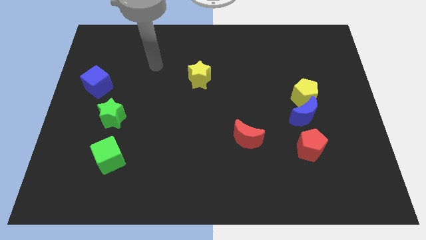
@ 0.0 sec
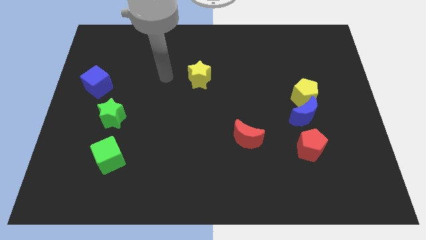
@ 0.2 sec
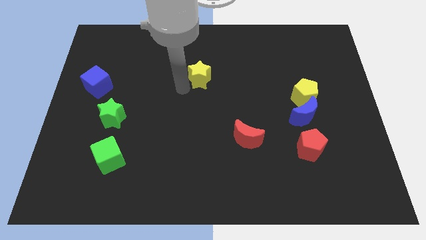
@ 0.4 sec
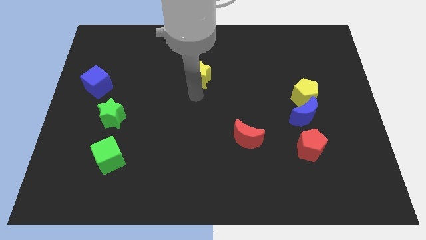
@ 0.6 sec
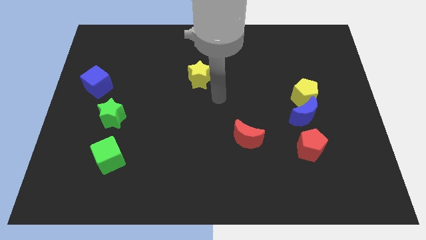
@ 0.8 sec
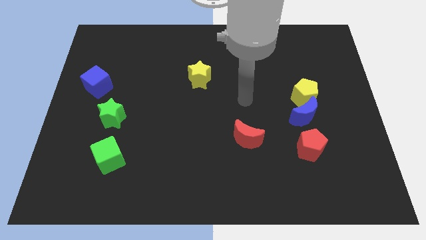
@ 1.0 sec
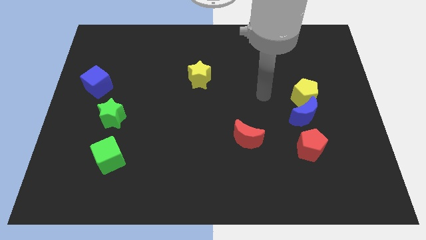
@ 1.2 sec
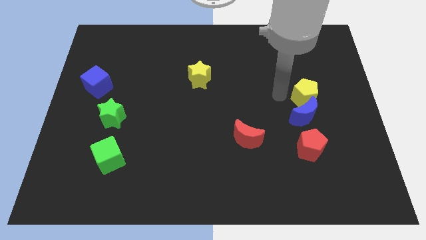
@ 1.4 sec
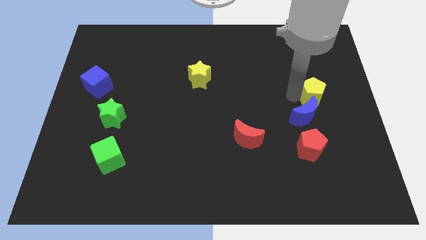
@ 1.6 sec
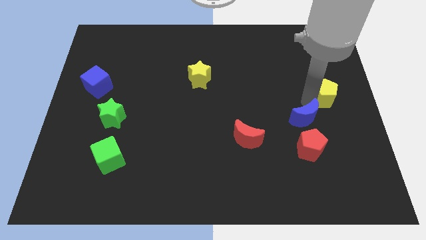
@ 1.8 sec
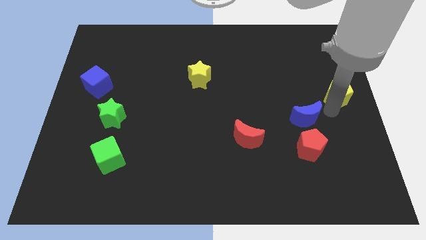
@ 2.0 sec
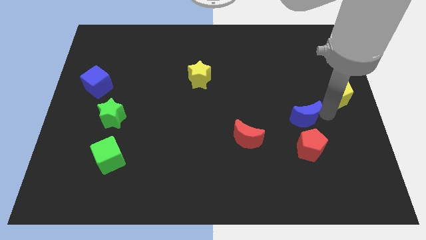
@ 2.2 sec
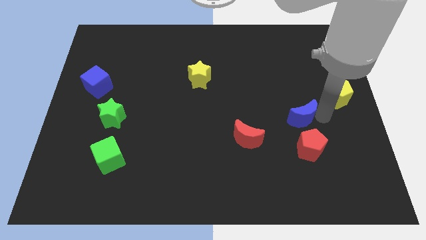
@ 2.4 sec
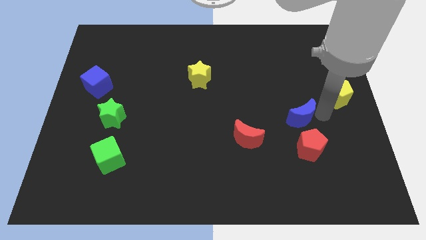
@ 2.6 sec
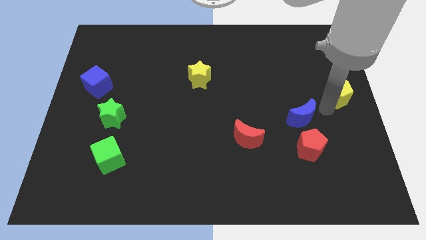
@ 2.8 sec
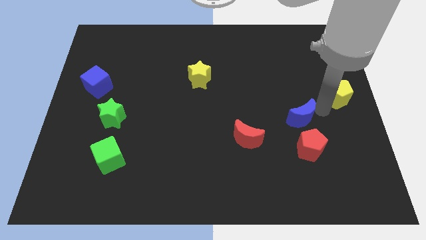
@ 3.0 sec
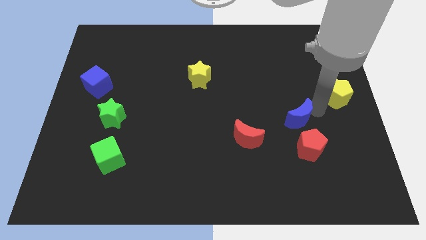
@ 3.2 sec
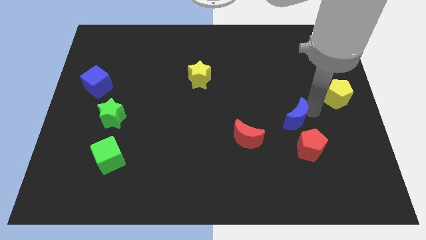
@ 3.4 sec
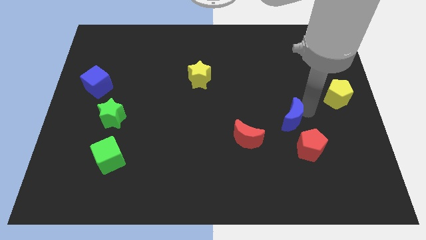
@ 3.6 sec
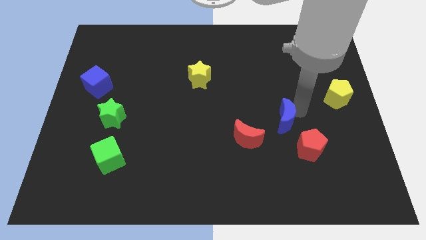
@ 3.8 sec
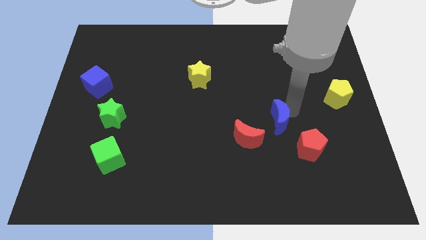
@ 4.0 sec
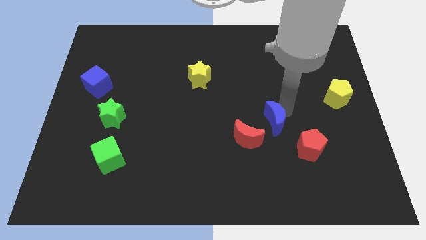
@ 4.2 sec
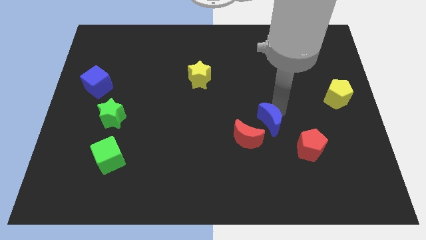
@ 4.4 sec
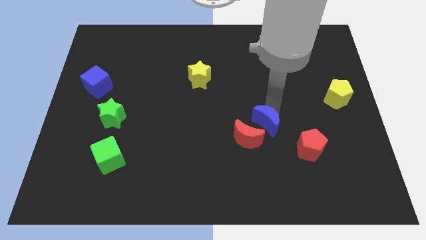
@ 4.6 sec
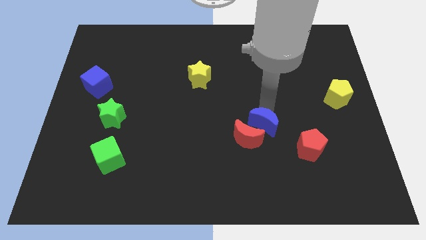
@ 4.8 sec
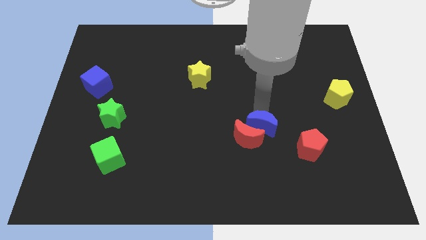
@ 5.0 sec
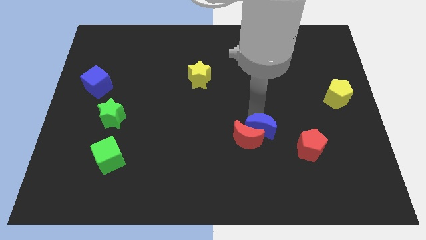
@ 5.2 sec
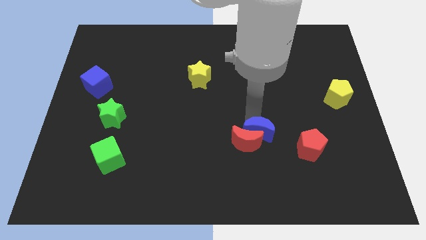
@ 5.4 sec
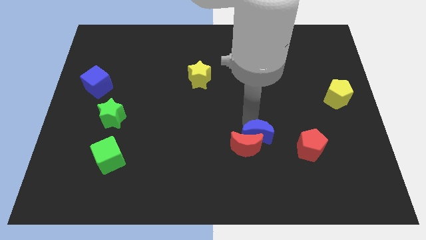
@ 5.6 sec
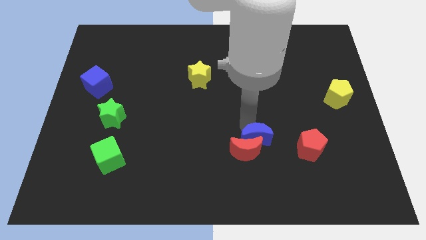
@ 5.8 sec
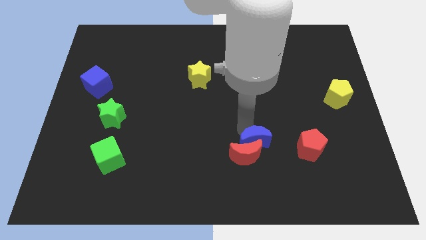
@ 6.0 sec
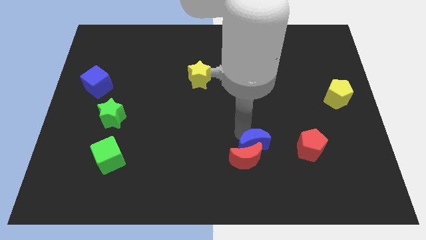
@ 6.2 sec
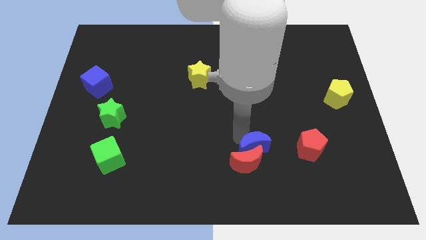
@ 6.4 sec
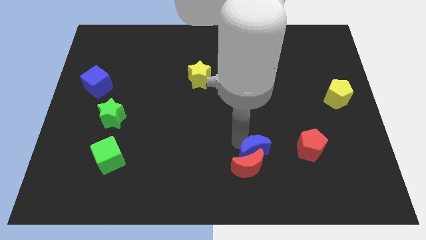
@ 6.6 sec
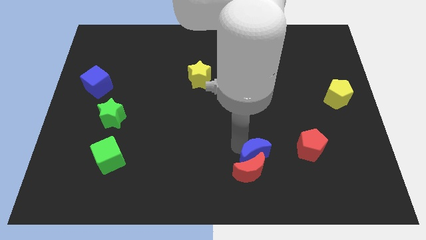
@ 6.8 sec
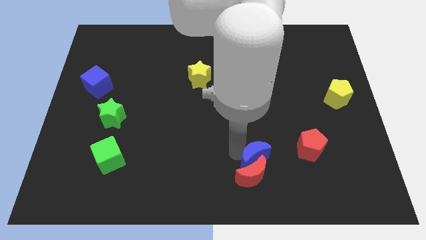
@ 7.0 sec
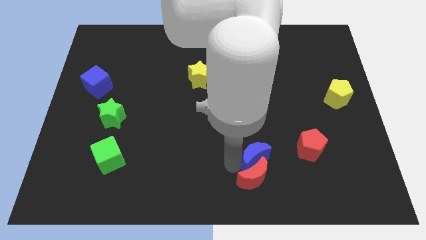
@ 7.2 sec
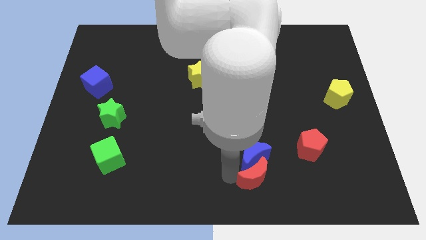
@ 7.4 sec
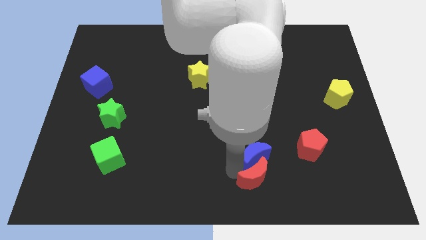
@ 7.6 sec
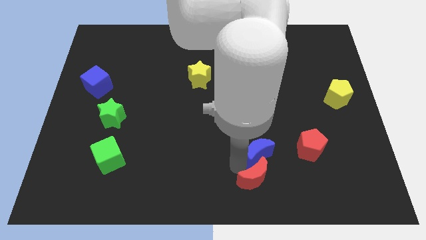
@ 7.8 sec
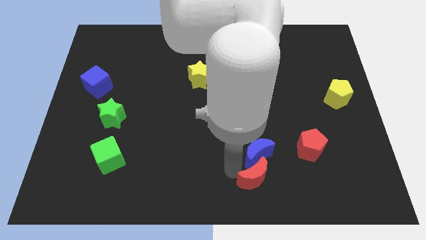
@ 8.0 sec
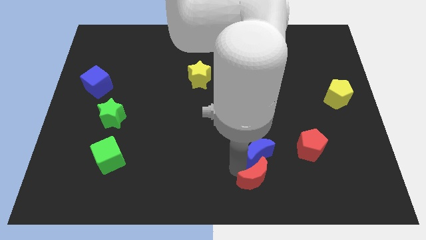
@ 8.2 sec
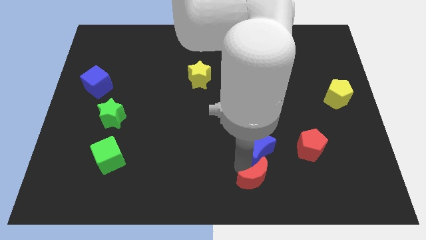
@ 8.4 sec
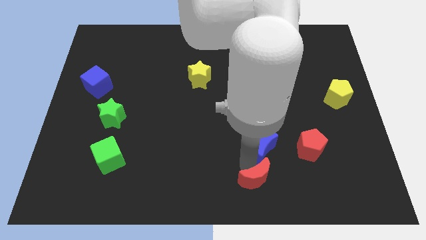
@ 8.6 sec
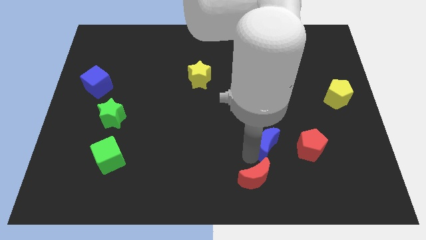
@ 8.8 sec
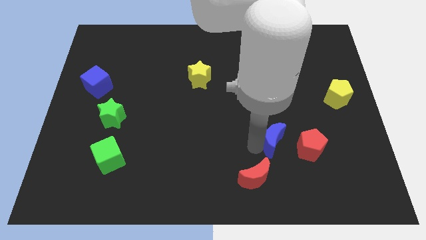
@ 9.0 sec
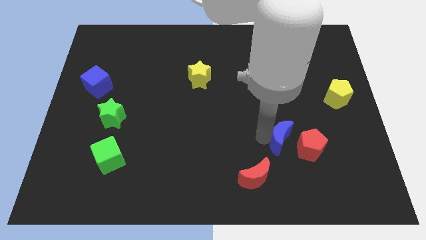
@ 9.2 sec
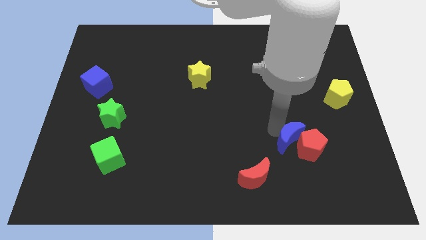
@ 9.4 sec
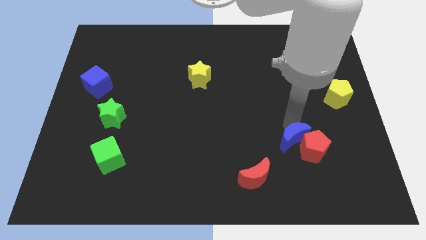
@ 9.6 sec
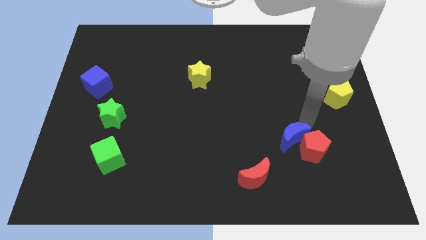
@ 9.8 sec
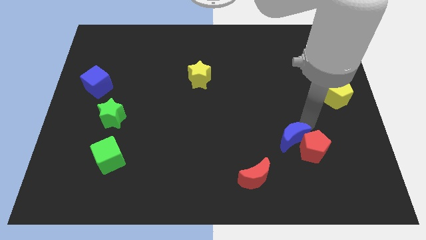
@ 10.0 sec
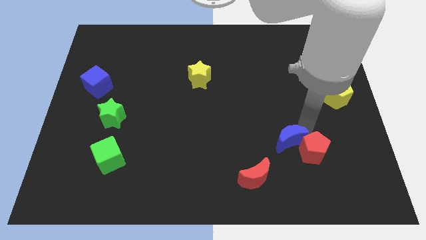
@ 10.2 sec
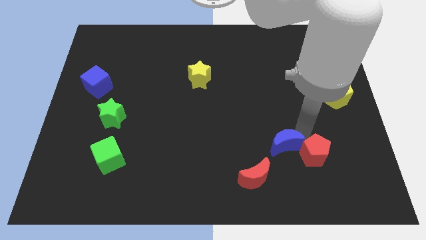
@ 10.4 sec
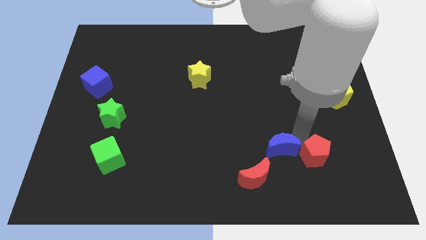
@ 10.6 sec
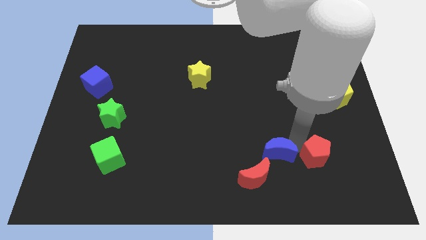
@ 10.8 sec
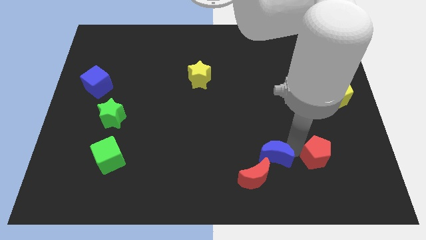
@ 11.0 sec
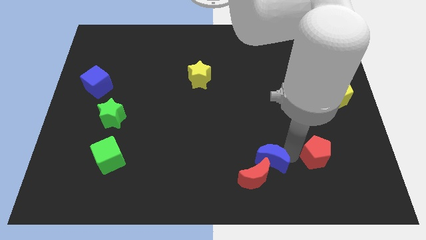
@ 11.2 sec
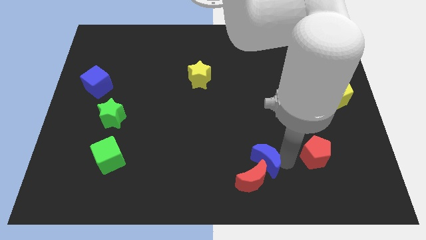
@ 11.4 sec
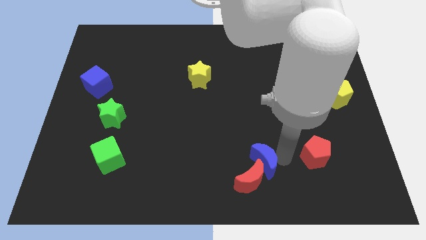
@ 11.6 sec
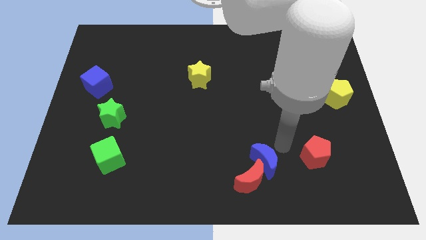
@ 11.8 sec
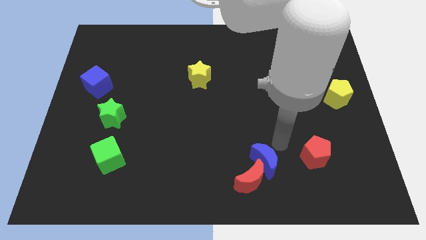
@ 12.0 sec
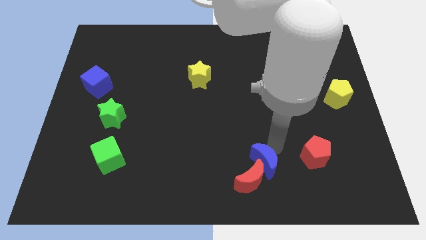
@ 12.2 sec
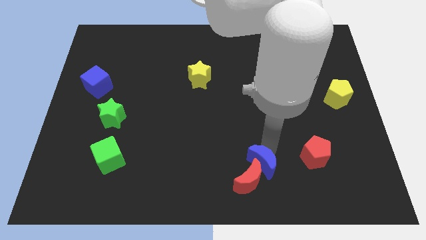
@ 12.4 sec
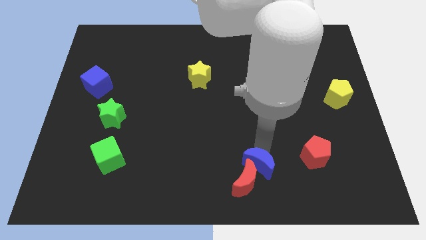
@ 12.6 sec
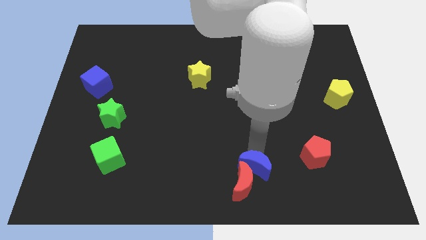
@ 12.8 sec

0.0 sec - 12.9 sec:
move the blue moon to the bottom

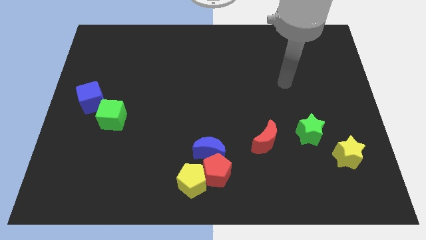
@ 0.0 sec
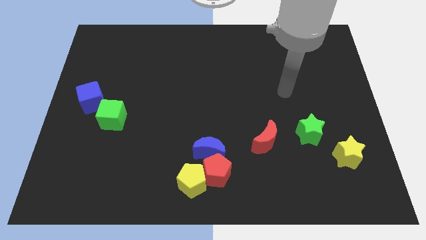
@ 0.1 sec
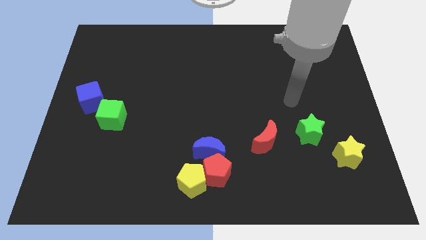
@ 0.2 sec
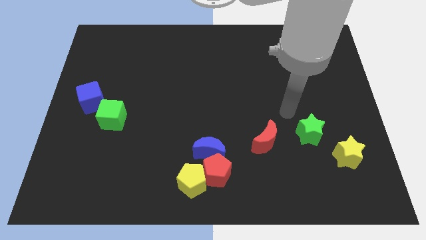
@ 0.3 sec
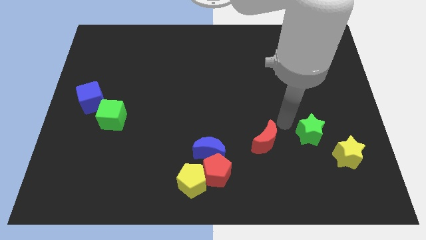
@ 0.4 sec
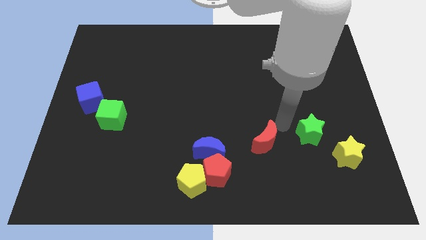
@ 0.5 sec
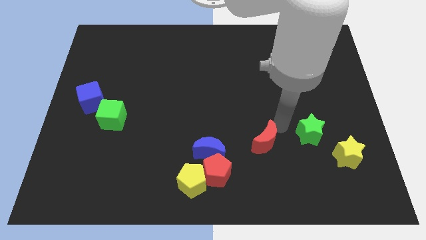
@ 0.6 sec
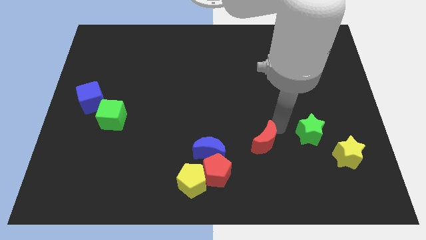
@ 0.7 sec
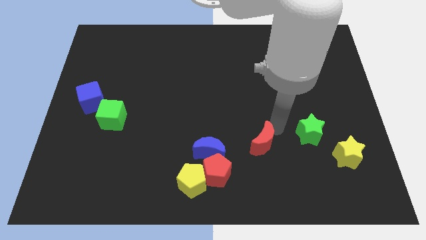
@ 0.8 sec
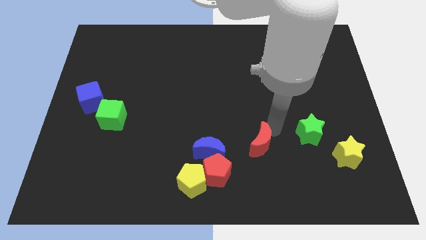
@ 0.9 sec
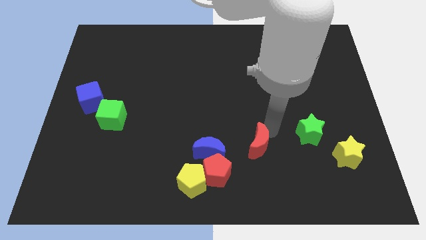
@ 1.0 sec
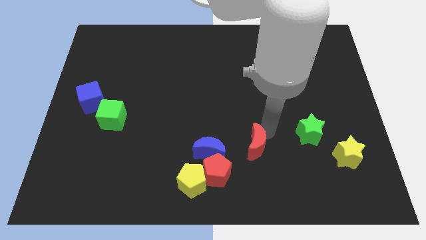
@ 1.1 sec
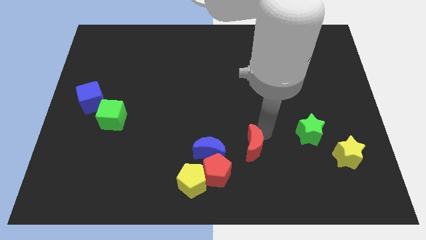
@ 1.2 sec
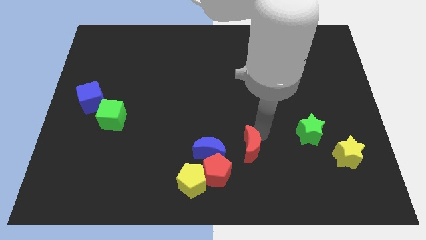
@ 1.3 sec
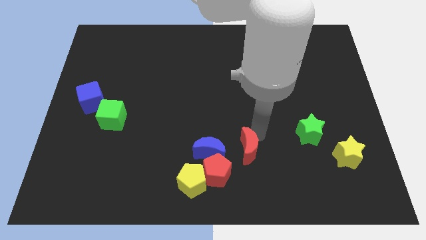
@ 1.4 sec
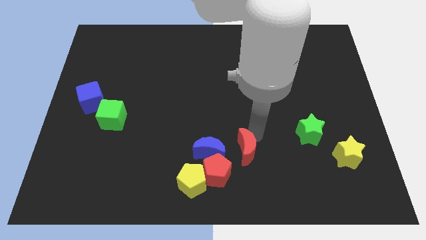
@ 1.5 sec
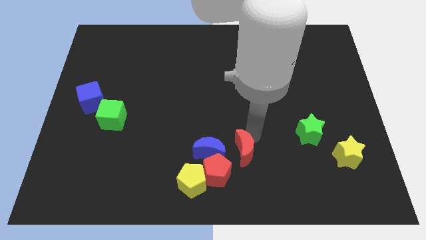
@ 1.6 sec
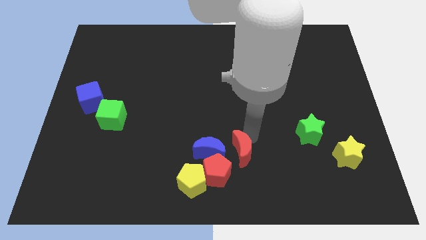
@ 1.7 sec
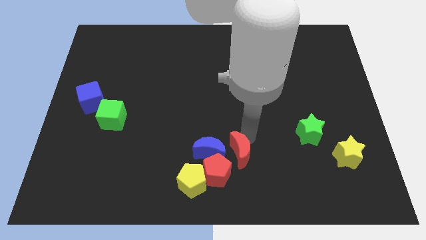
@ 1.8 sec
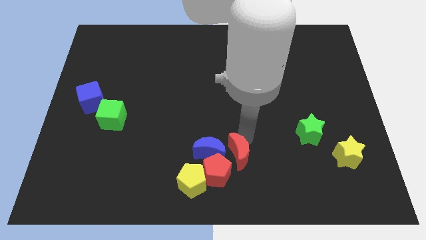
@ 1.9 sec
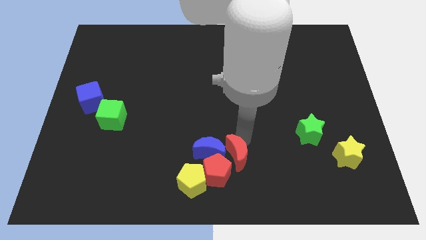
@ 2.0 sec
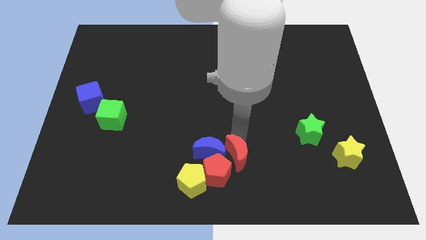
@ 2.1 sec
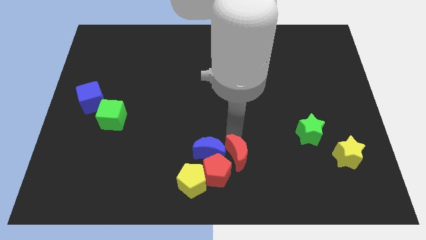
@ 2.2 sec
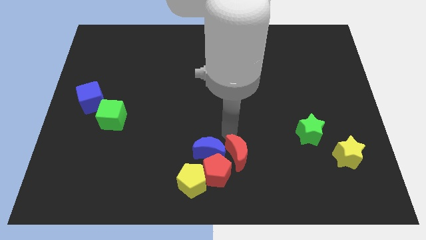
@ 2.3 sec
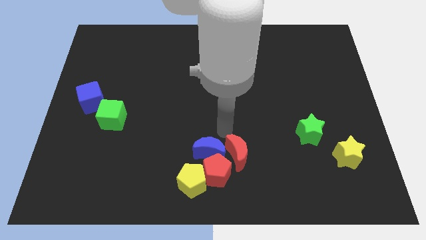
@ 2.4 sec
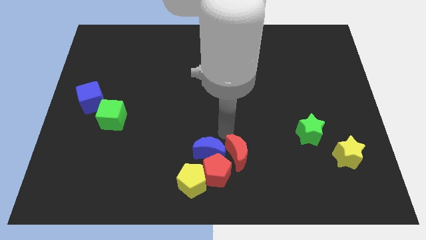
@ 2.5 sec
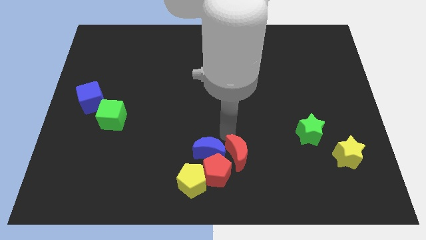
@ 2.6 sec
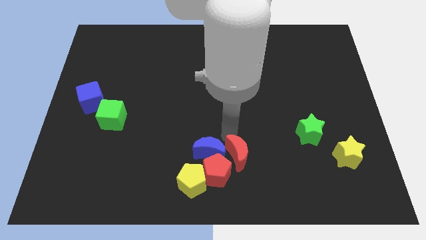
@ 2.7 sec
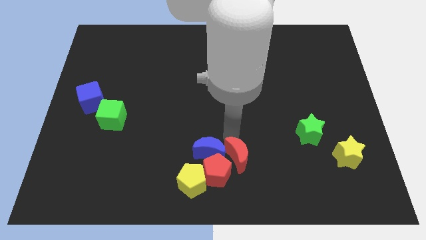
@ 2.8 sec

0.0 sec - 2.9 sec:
push the red moon to the bottom
